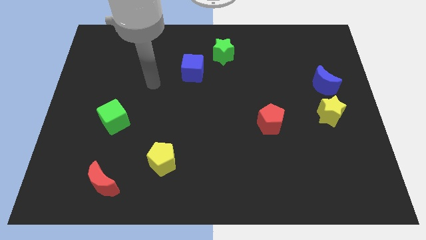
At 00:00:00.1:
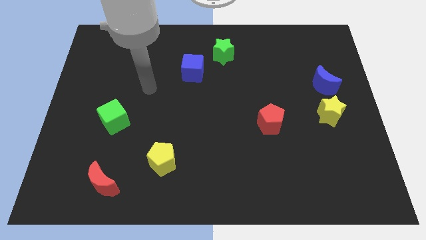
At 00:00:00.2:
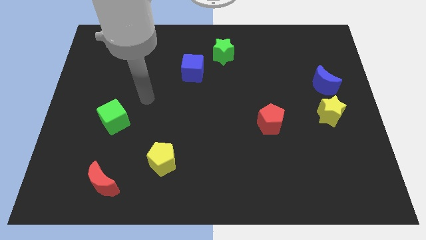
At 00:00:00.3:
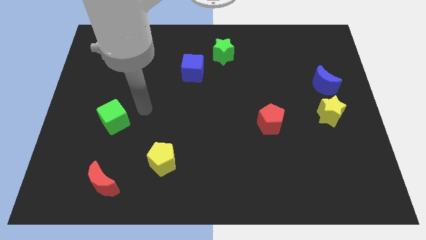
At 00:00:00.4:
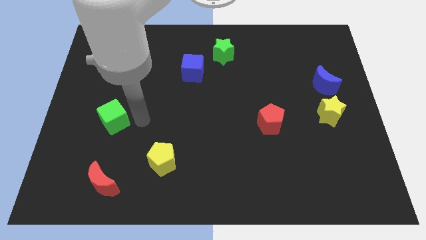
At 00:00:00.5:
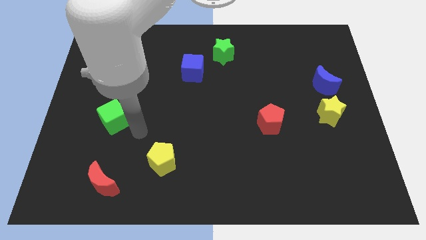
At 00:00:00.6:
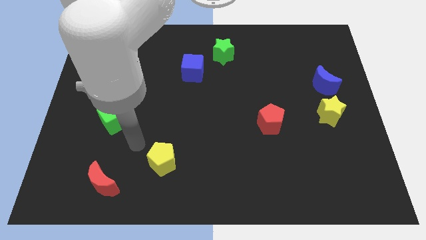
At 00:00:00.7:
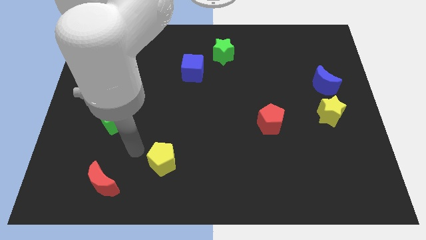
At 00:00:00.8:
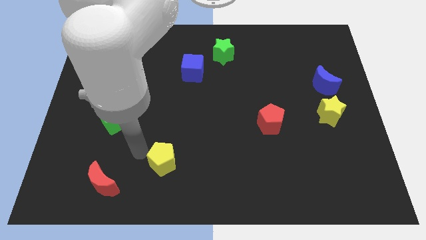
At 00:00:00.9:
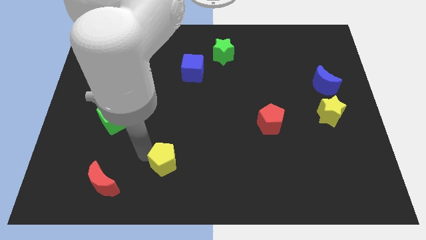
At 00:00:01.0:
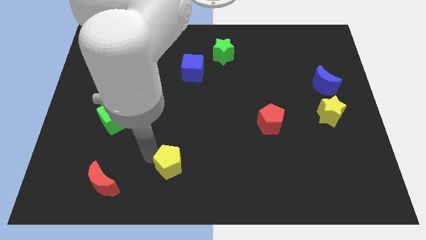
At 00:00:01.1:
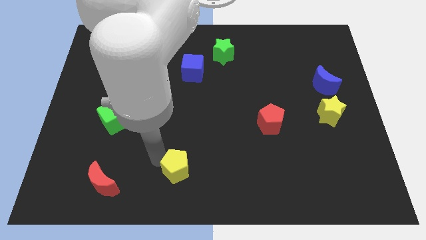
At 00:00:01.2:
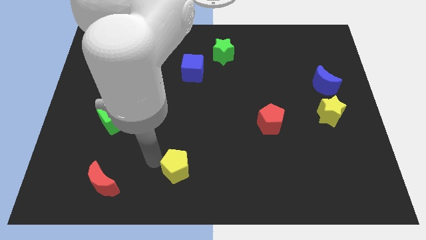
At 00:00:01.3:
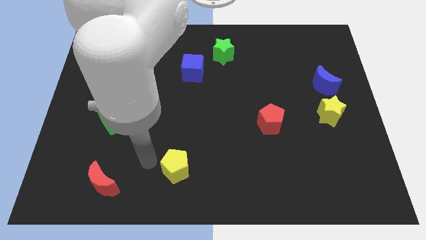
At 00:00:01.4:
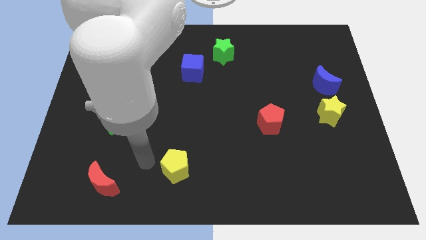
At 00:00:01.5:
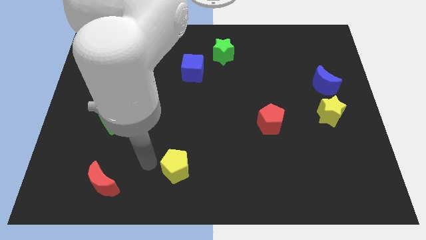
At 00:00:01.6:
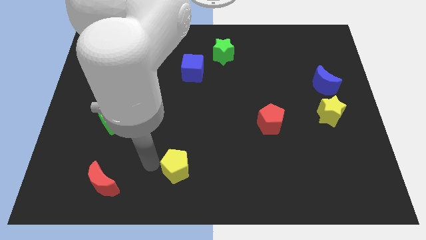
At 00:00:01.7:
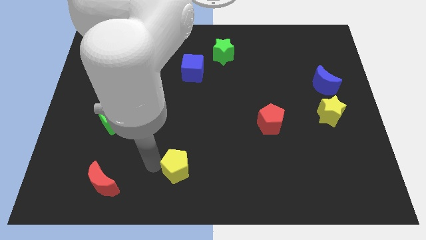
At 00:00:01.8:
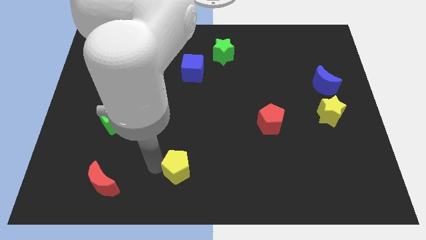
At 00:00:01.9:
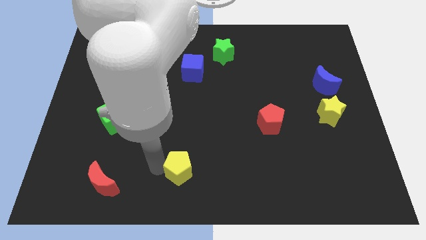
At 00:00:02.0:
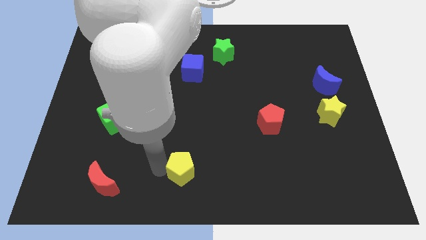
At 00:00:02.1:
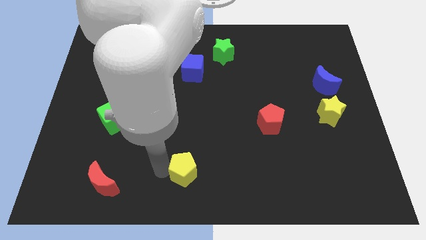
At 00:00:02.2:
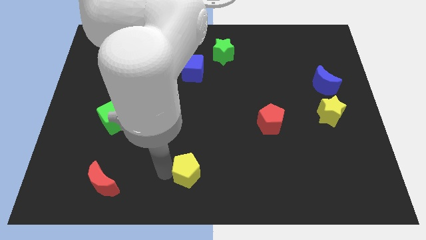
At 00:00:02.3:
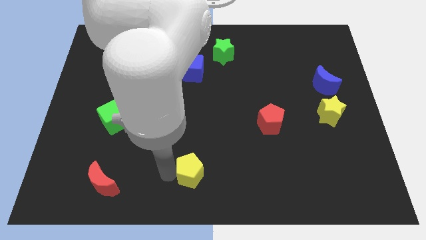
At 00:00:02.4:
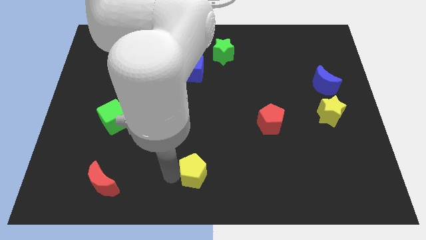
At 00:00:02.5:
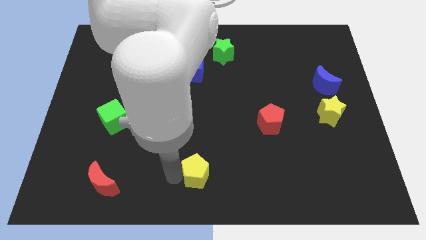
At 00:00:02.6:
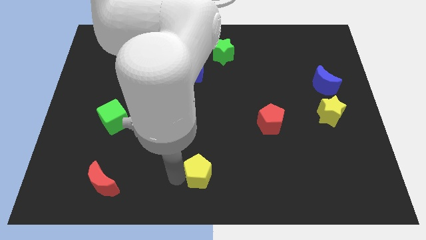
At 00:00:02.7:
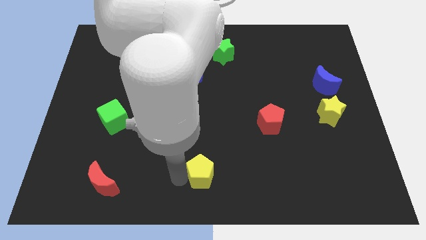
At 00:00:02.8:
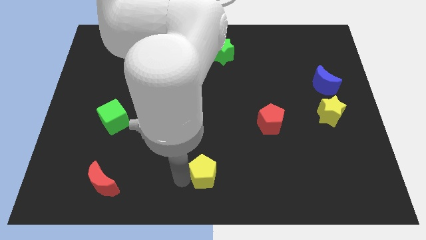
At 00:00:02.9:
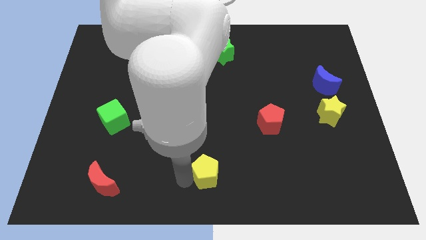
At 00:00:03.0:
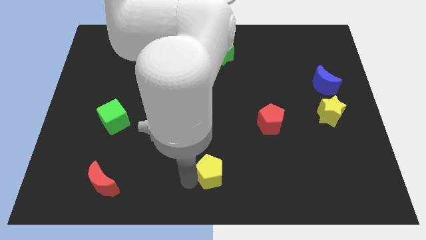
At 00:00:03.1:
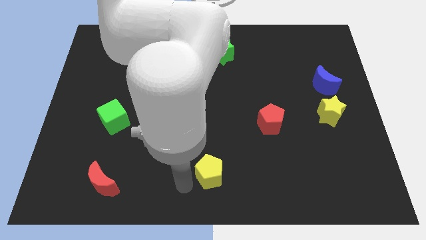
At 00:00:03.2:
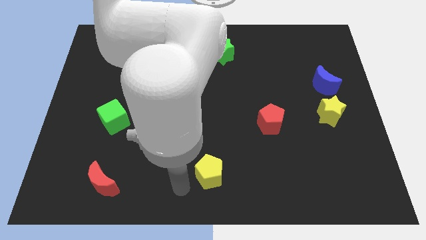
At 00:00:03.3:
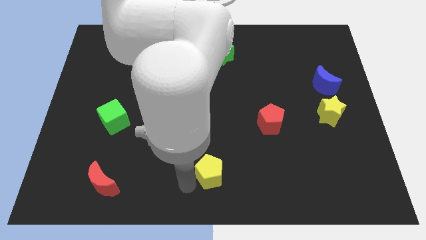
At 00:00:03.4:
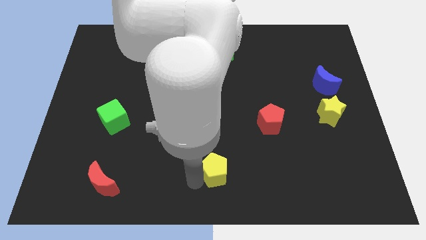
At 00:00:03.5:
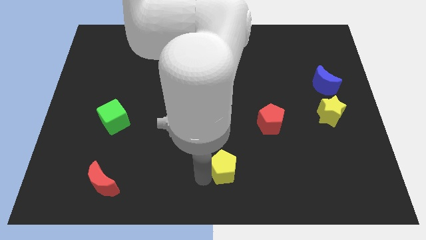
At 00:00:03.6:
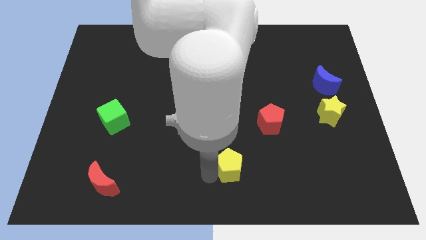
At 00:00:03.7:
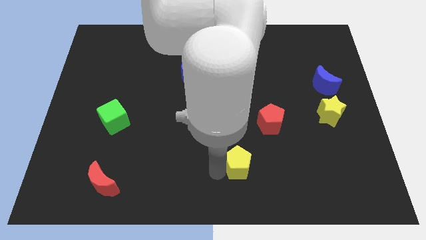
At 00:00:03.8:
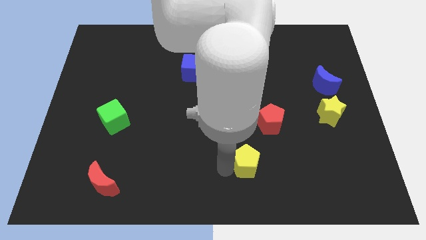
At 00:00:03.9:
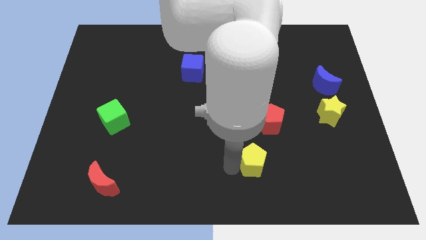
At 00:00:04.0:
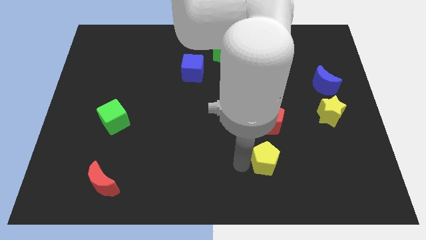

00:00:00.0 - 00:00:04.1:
slide the yellow pentagon to the right

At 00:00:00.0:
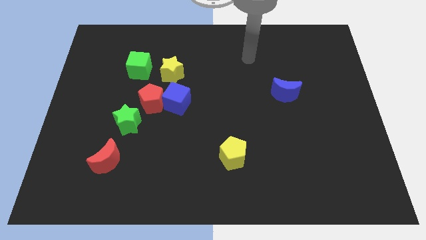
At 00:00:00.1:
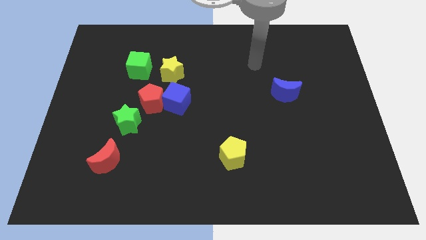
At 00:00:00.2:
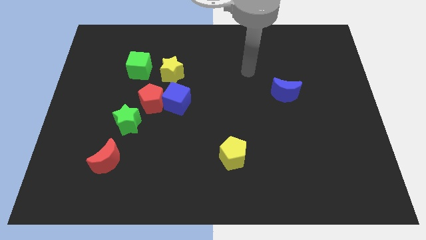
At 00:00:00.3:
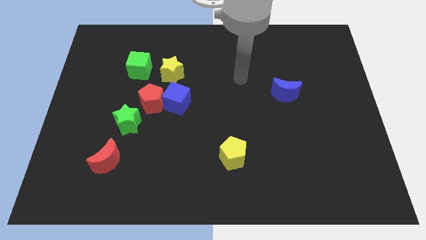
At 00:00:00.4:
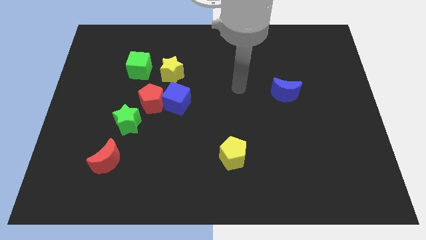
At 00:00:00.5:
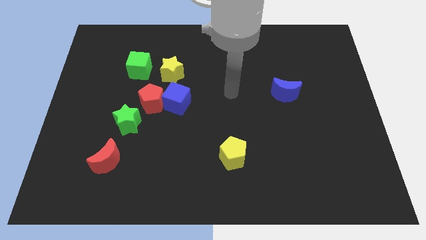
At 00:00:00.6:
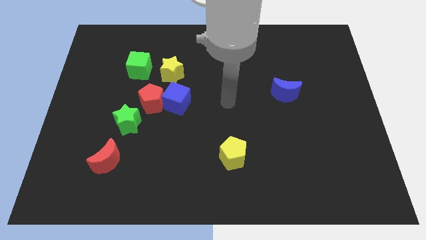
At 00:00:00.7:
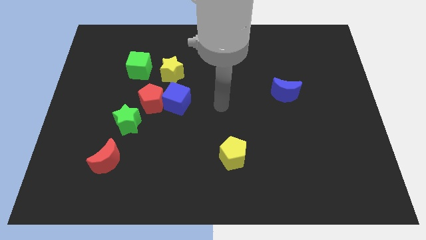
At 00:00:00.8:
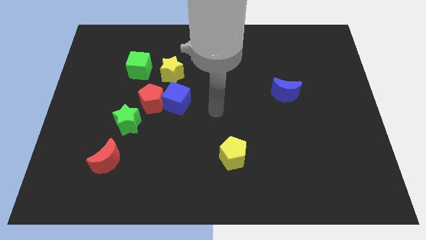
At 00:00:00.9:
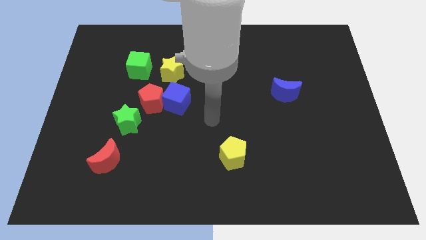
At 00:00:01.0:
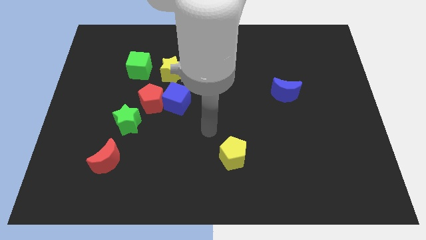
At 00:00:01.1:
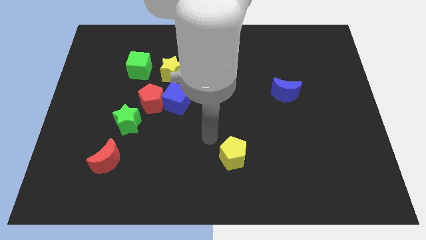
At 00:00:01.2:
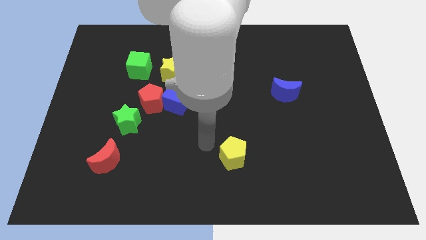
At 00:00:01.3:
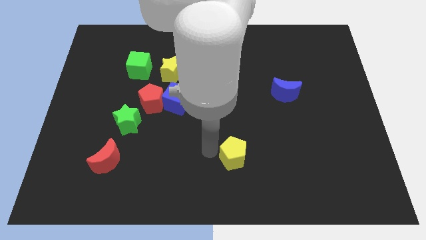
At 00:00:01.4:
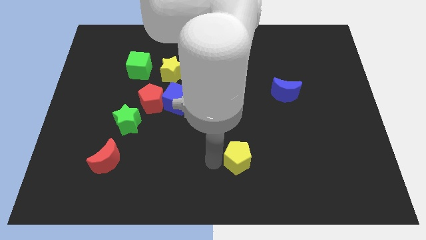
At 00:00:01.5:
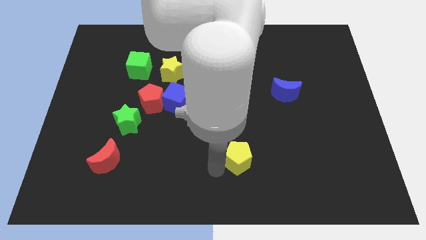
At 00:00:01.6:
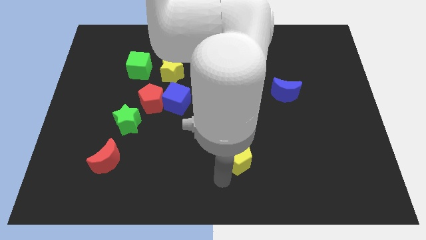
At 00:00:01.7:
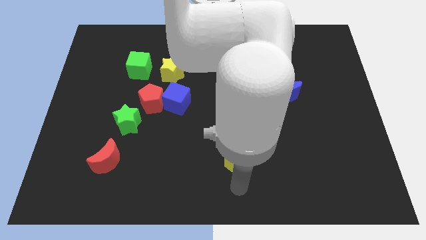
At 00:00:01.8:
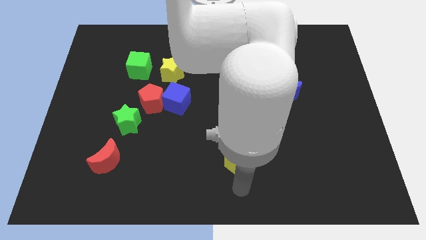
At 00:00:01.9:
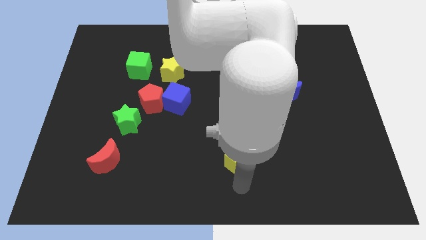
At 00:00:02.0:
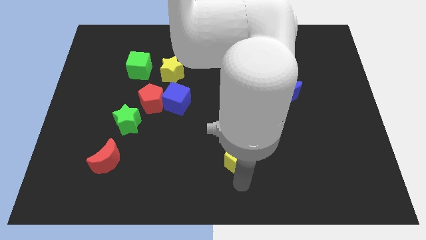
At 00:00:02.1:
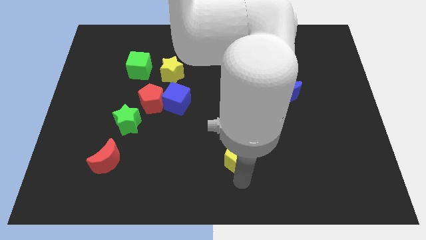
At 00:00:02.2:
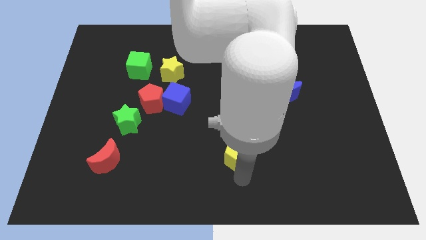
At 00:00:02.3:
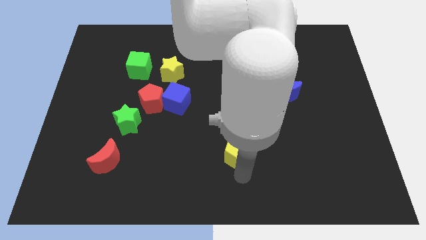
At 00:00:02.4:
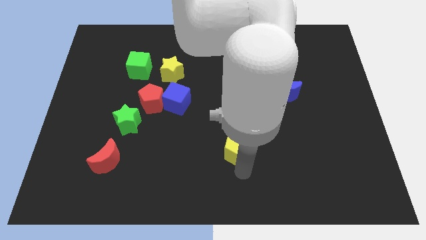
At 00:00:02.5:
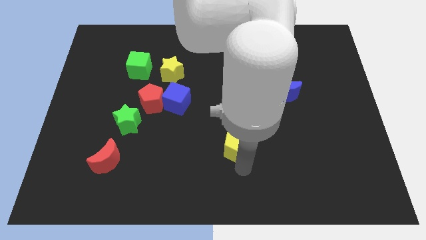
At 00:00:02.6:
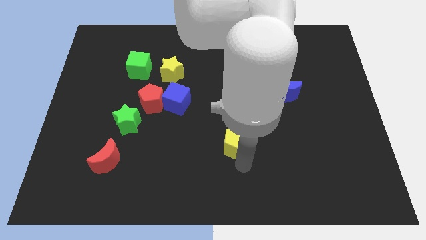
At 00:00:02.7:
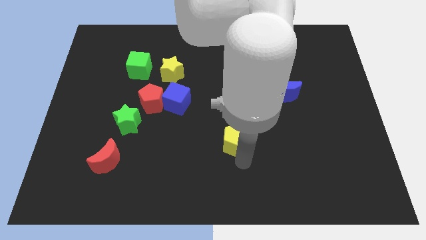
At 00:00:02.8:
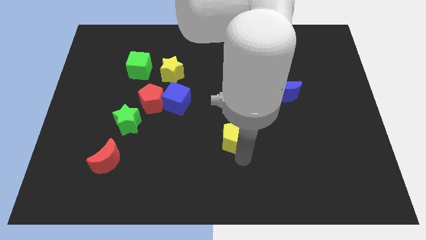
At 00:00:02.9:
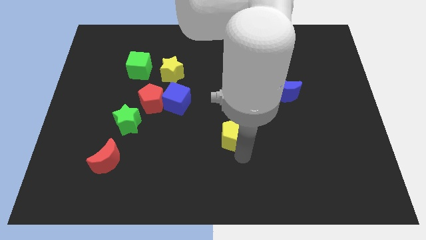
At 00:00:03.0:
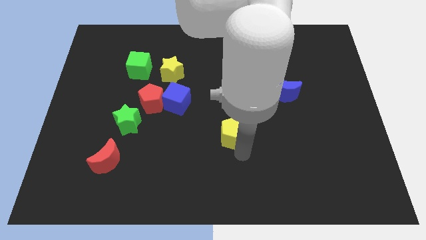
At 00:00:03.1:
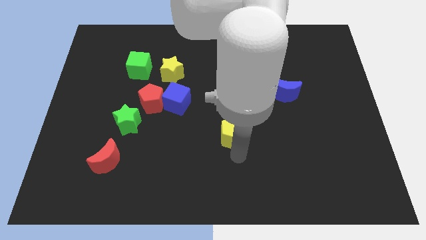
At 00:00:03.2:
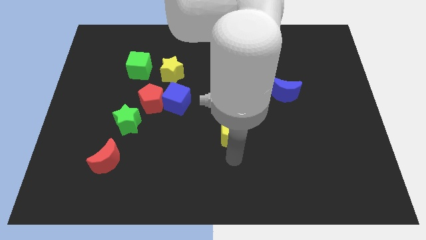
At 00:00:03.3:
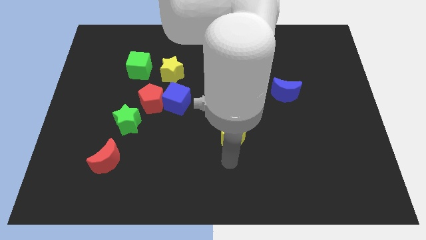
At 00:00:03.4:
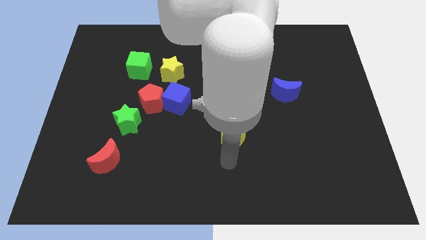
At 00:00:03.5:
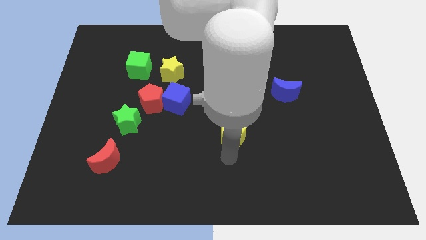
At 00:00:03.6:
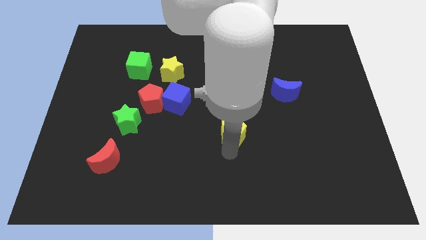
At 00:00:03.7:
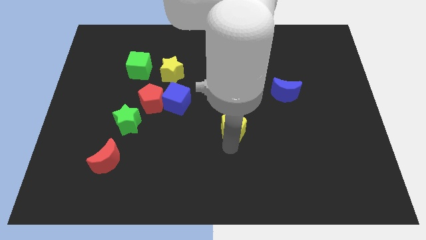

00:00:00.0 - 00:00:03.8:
slightly push the yellow pentagon up
